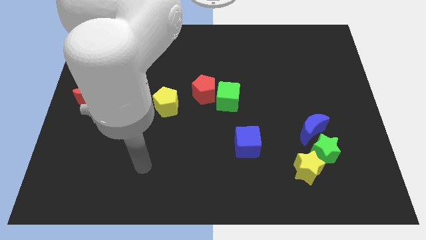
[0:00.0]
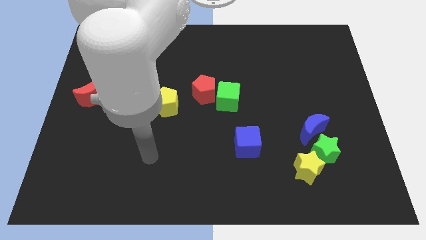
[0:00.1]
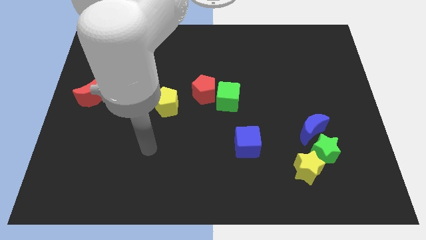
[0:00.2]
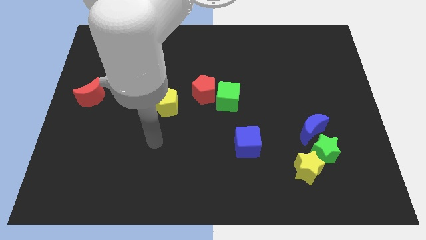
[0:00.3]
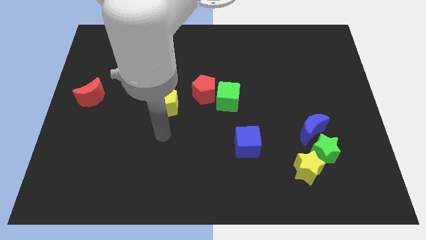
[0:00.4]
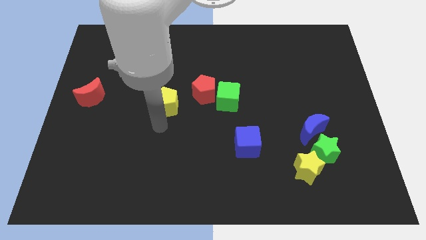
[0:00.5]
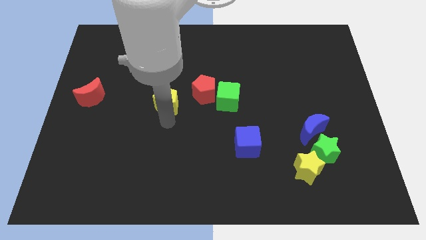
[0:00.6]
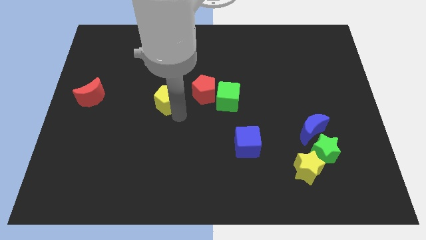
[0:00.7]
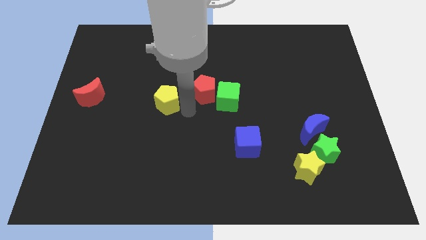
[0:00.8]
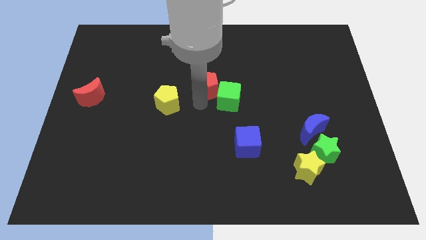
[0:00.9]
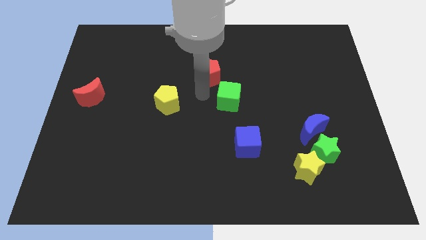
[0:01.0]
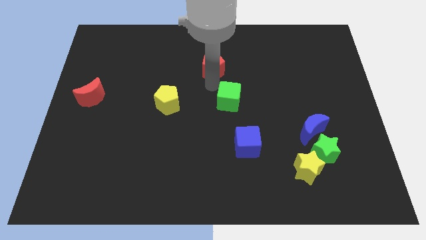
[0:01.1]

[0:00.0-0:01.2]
pull the green cube apart from the red pentagon

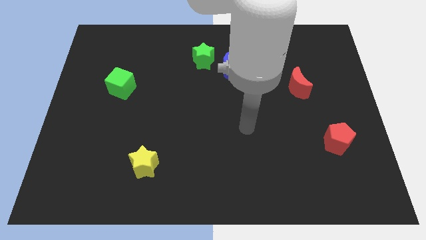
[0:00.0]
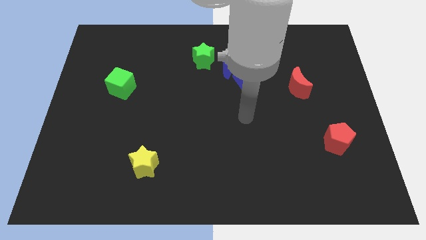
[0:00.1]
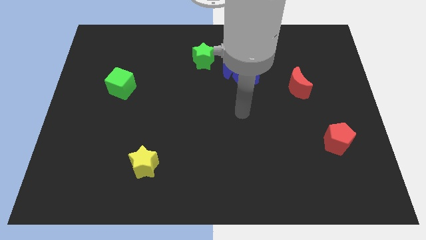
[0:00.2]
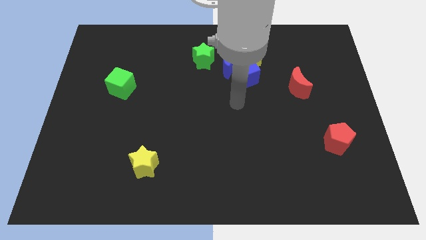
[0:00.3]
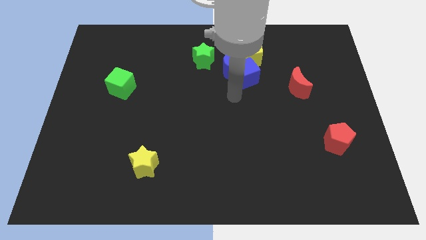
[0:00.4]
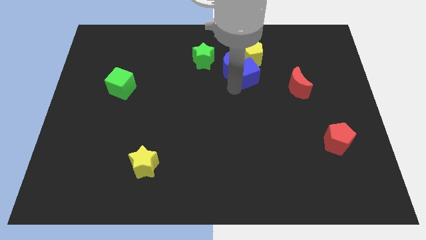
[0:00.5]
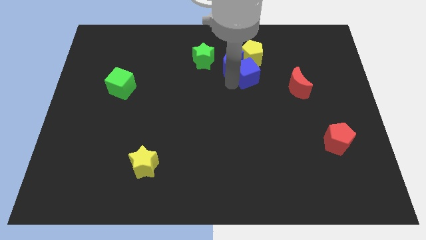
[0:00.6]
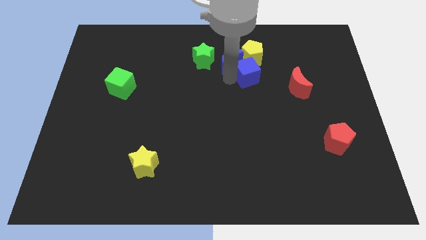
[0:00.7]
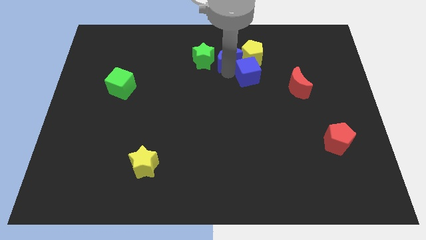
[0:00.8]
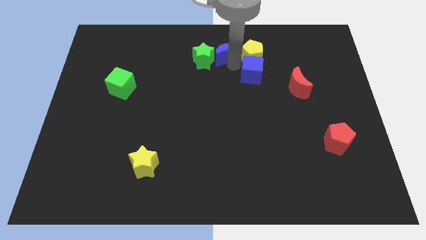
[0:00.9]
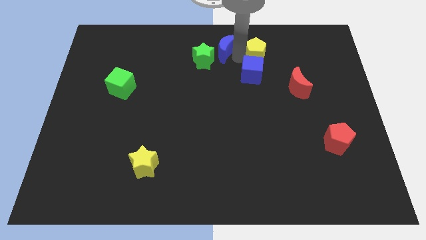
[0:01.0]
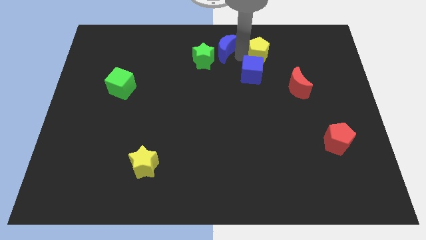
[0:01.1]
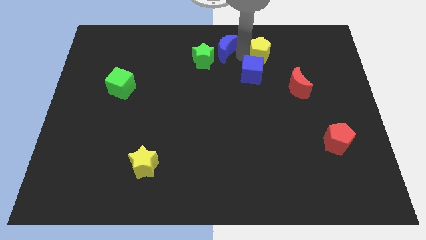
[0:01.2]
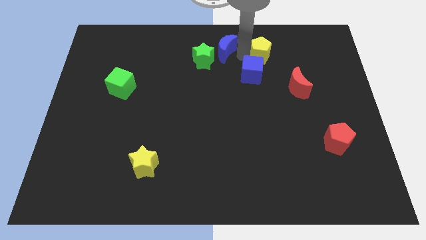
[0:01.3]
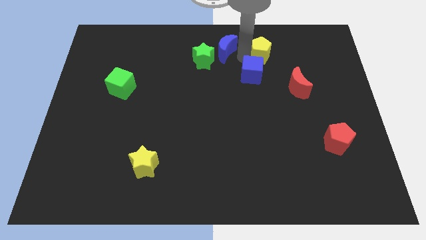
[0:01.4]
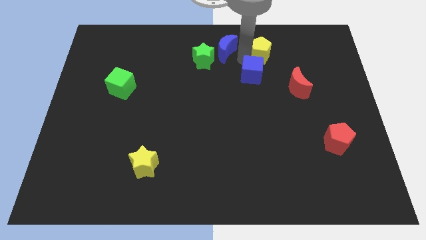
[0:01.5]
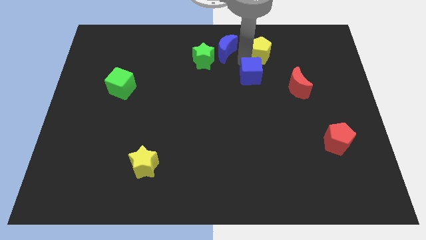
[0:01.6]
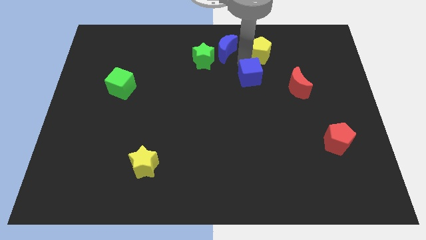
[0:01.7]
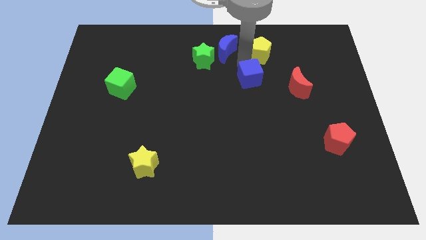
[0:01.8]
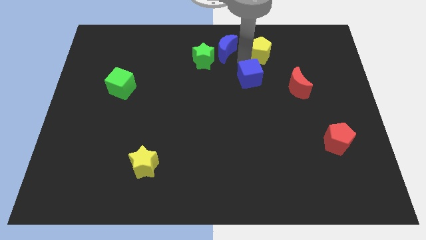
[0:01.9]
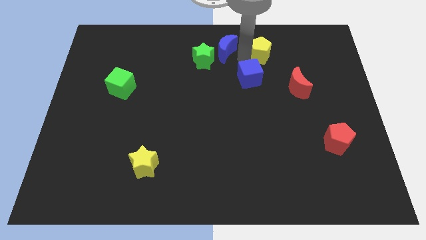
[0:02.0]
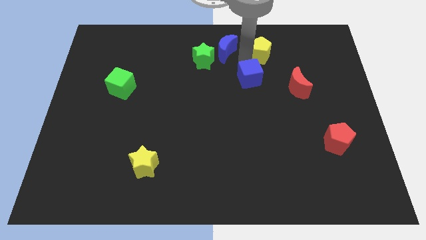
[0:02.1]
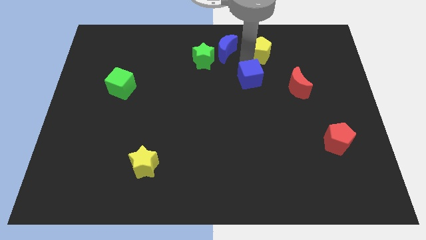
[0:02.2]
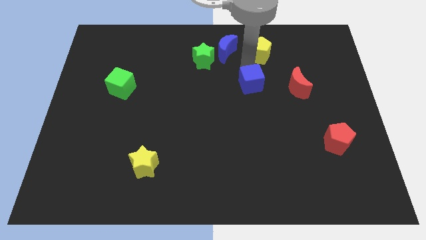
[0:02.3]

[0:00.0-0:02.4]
pull the blue cube apart from the blue moon and yellow pentagon

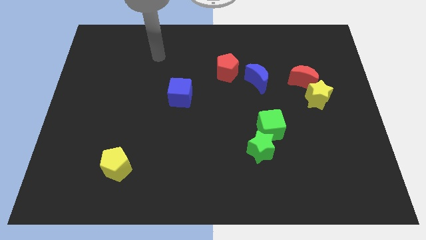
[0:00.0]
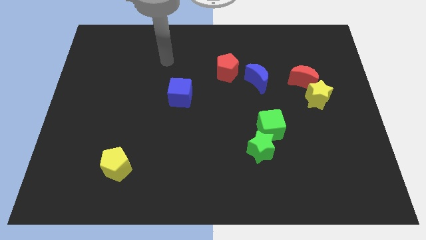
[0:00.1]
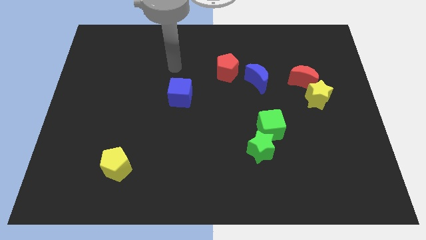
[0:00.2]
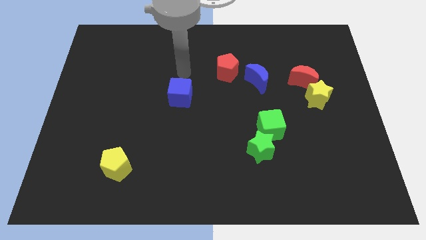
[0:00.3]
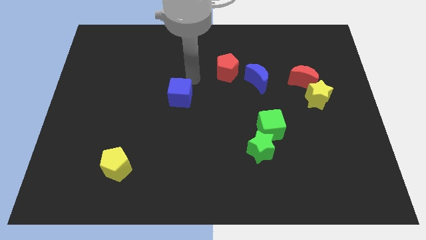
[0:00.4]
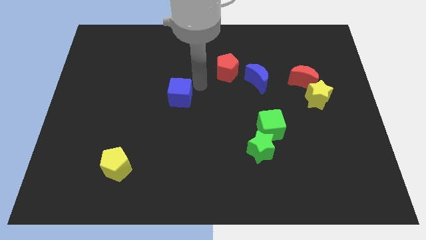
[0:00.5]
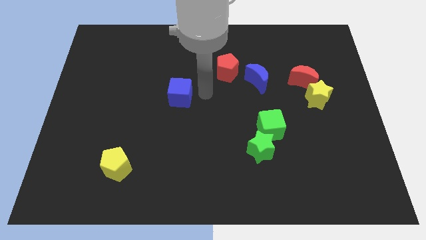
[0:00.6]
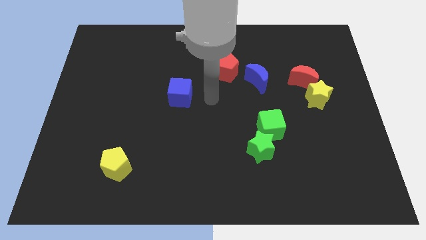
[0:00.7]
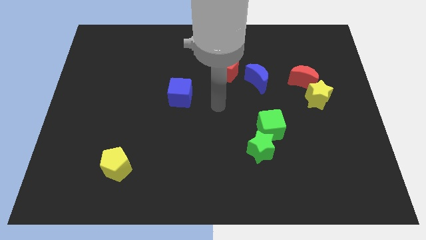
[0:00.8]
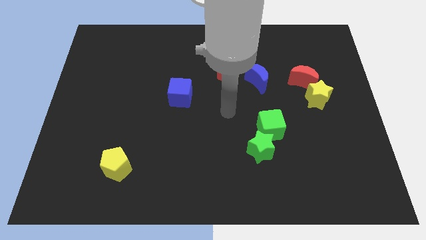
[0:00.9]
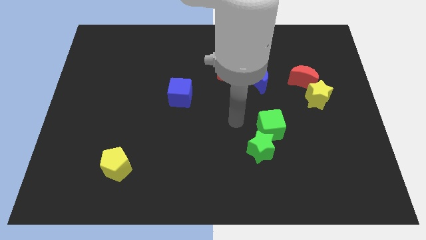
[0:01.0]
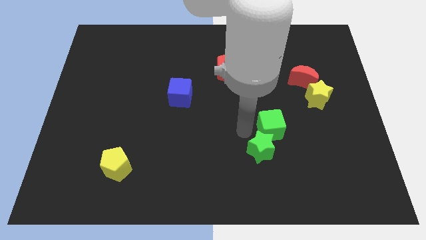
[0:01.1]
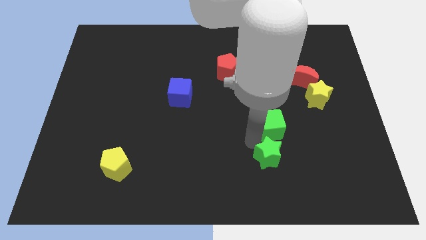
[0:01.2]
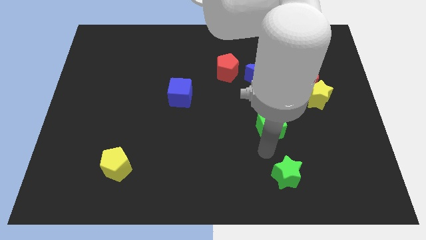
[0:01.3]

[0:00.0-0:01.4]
move the green cube away from the green star

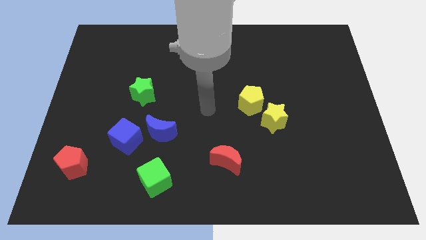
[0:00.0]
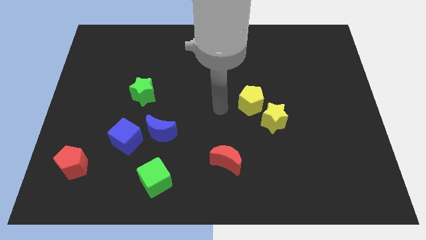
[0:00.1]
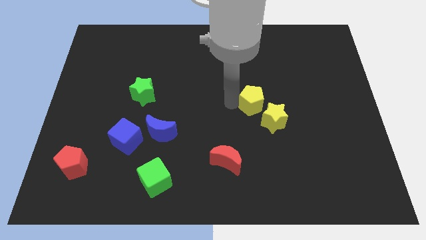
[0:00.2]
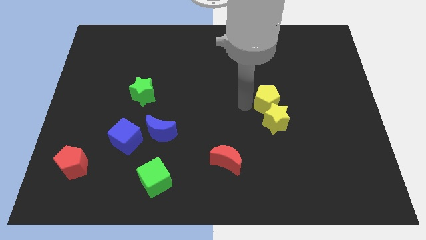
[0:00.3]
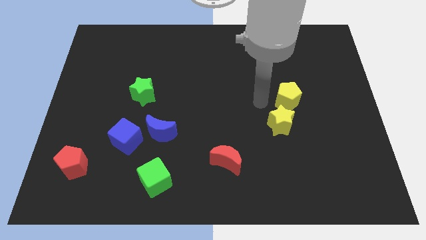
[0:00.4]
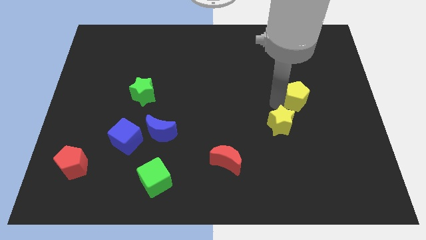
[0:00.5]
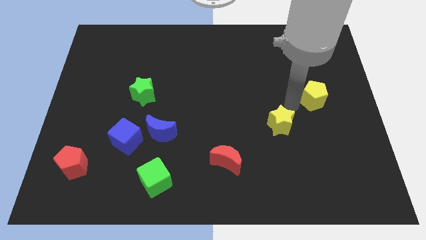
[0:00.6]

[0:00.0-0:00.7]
separate the yellow star from the yellow pentagon

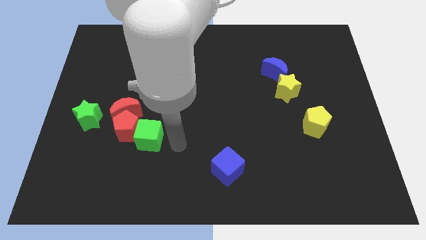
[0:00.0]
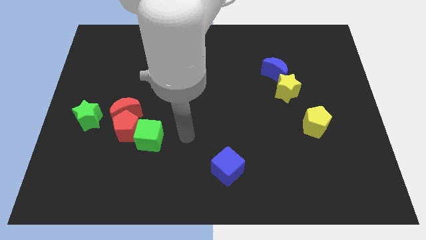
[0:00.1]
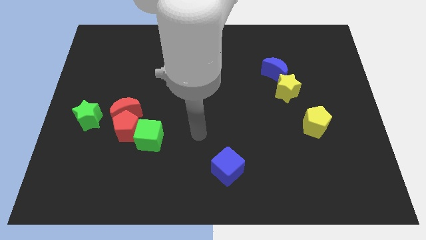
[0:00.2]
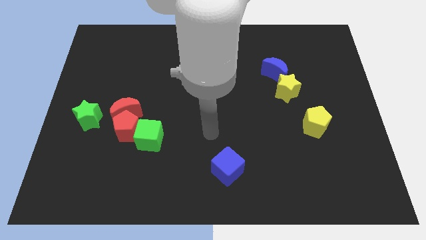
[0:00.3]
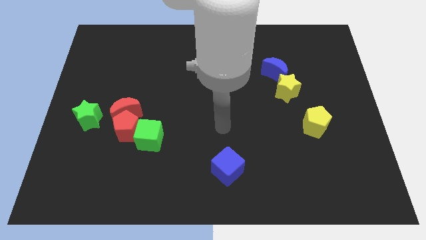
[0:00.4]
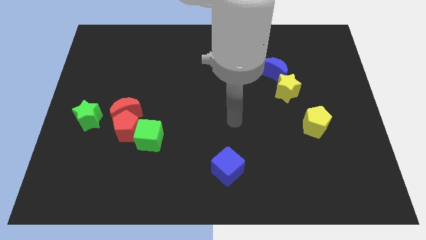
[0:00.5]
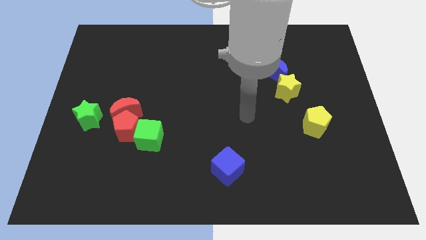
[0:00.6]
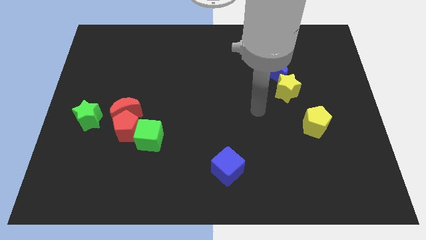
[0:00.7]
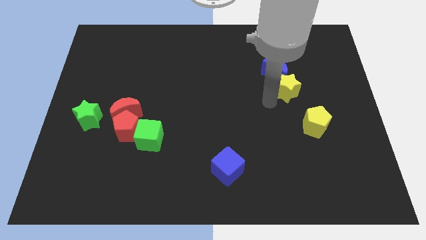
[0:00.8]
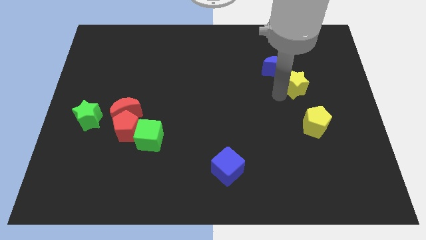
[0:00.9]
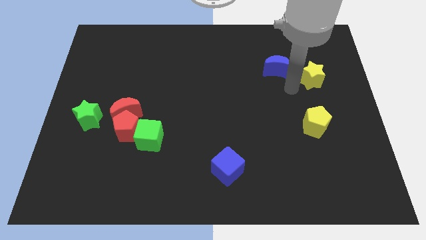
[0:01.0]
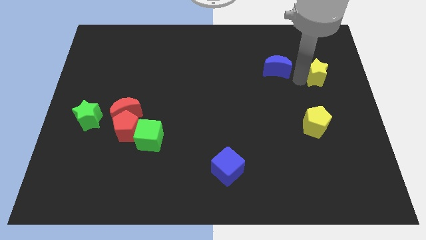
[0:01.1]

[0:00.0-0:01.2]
move the blue moon away from the yellow star

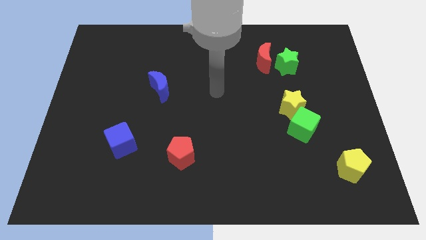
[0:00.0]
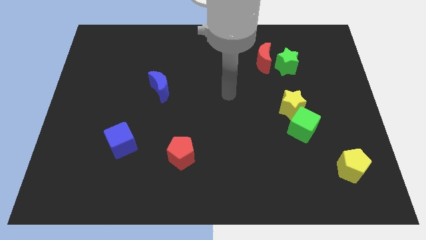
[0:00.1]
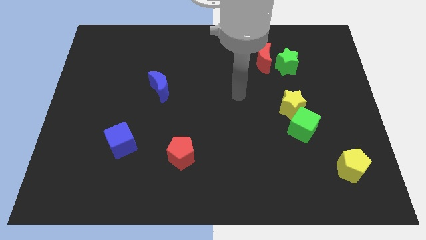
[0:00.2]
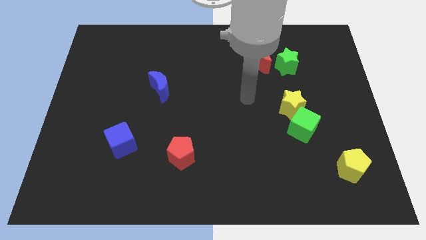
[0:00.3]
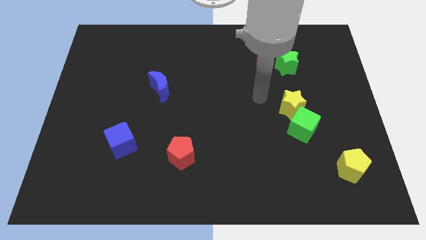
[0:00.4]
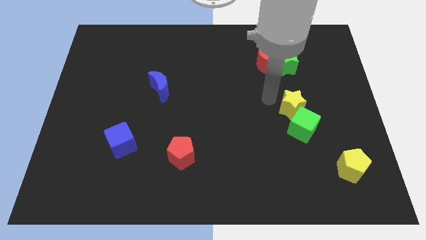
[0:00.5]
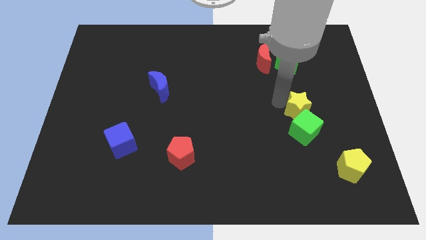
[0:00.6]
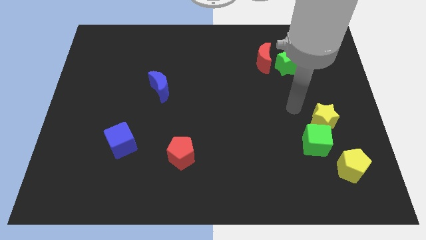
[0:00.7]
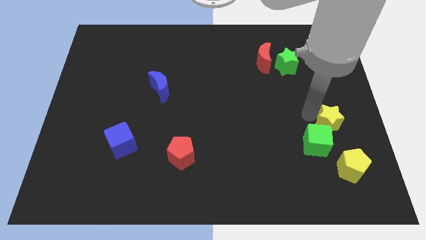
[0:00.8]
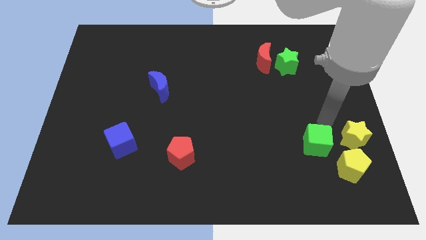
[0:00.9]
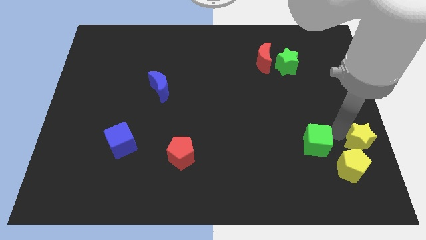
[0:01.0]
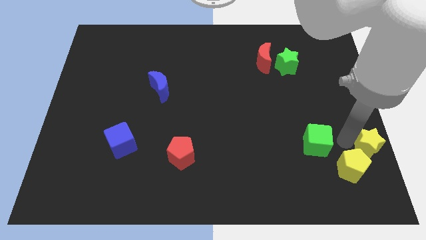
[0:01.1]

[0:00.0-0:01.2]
move the green cube away from the yellow star

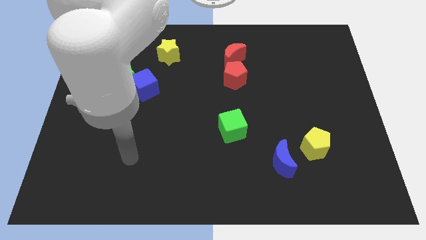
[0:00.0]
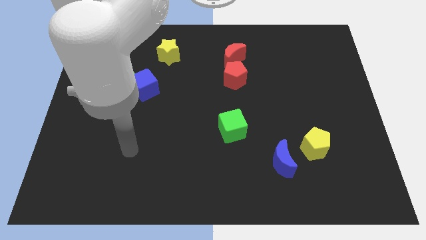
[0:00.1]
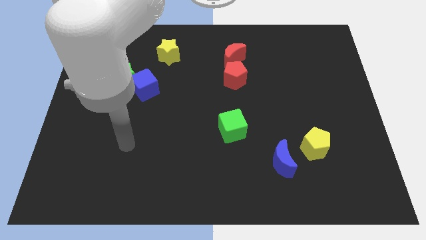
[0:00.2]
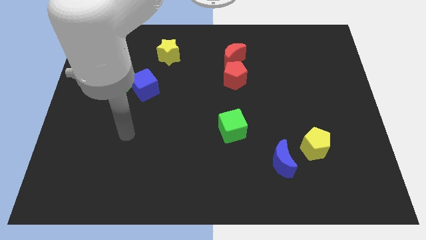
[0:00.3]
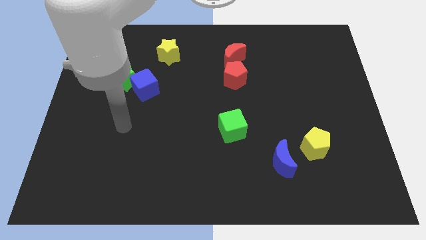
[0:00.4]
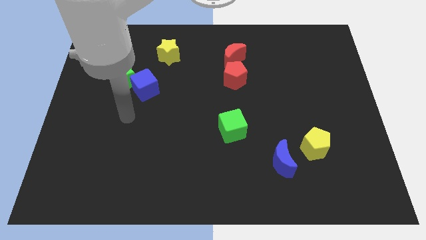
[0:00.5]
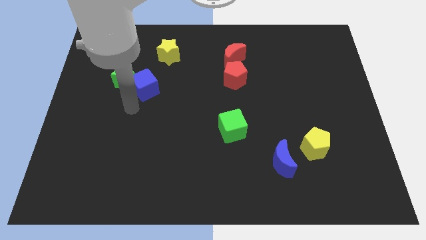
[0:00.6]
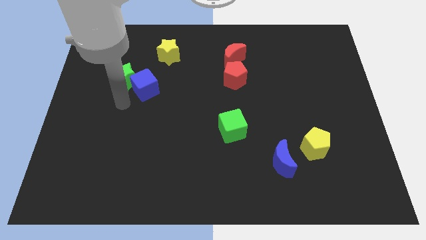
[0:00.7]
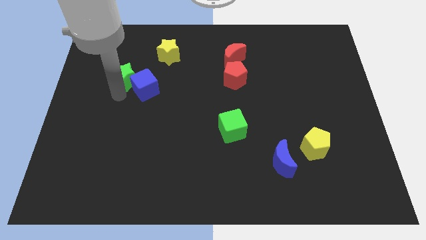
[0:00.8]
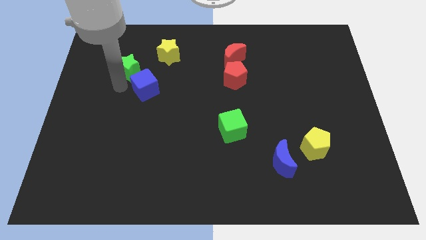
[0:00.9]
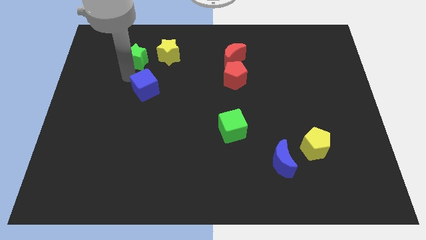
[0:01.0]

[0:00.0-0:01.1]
separate the blue cube from the green star
